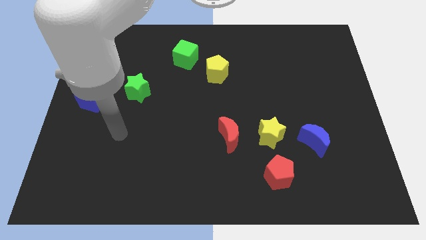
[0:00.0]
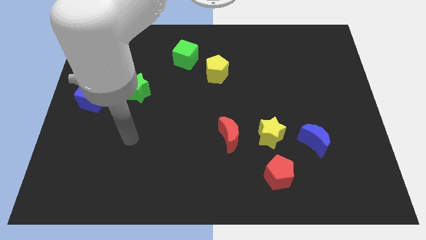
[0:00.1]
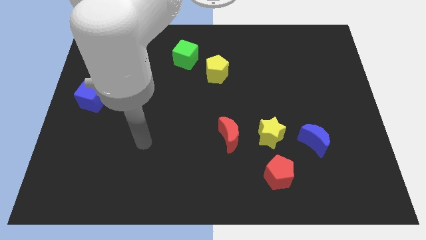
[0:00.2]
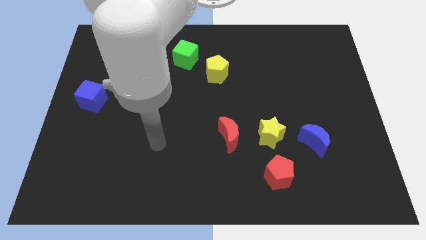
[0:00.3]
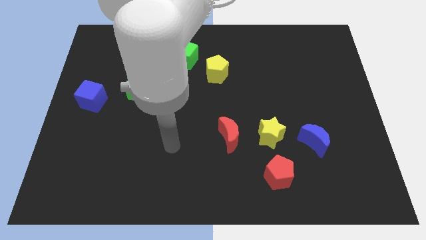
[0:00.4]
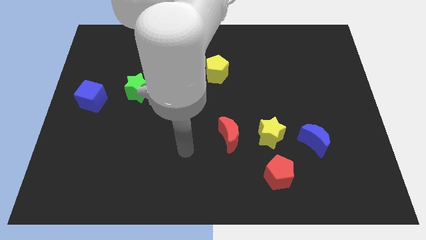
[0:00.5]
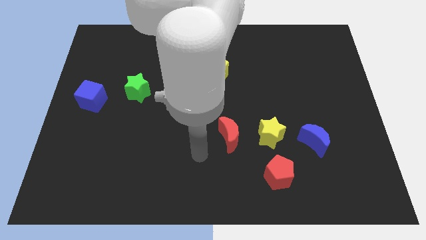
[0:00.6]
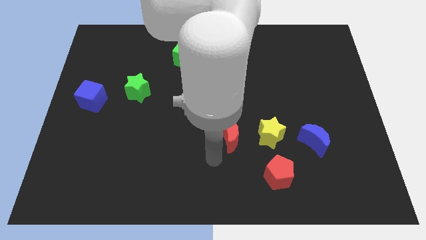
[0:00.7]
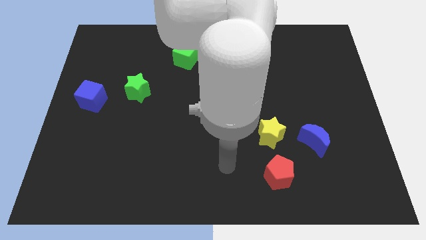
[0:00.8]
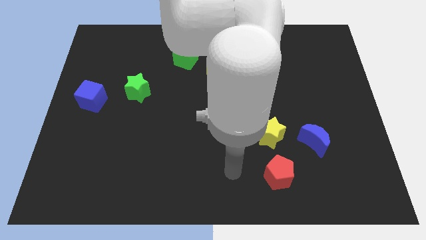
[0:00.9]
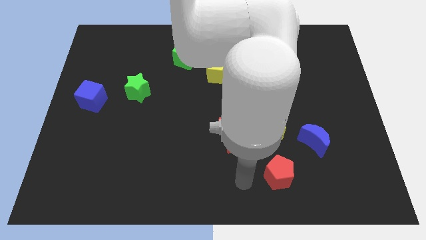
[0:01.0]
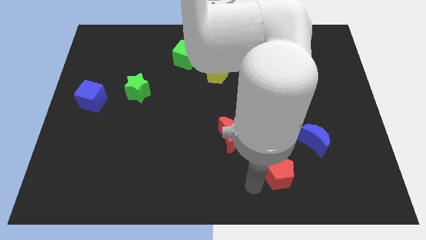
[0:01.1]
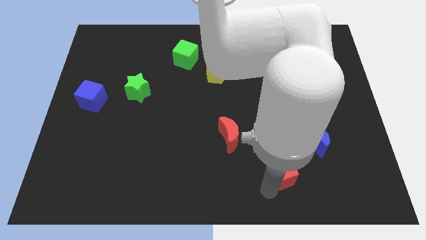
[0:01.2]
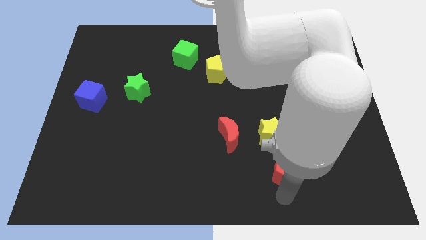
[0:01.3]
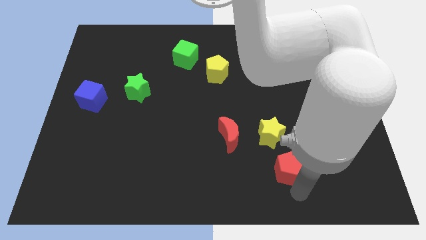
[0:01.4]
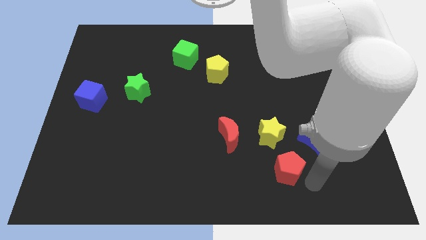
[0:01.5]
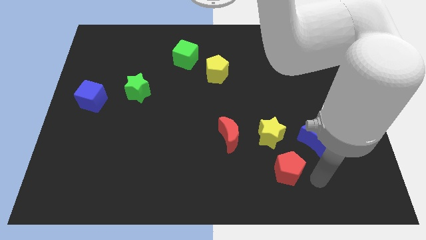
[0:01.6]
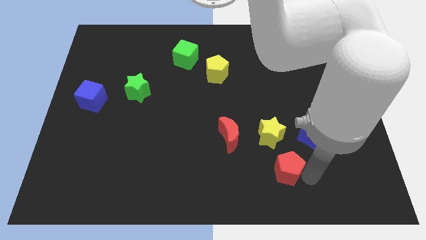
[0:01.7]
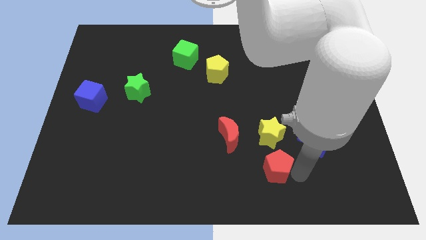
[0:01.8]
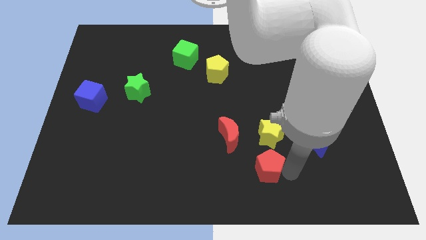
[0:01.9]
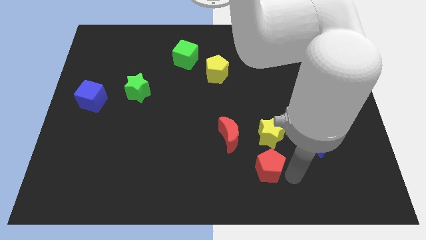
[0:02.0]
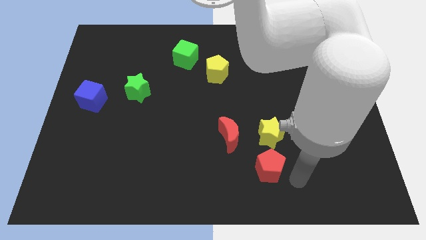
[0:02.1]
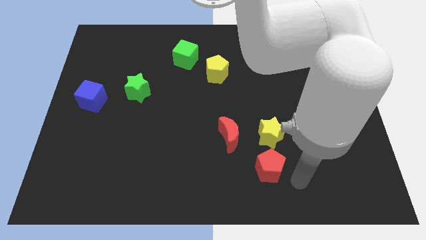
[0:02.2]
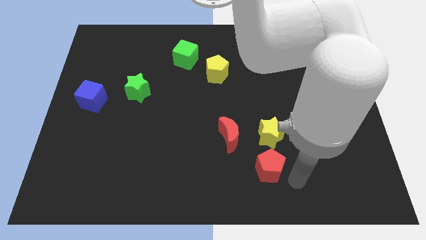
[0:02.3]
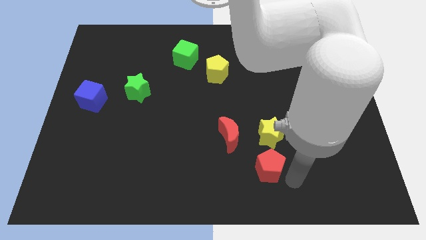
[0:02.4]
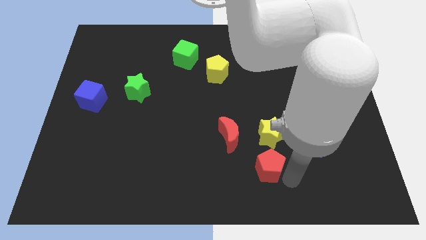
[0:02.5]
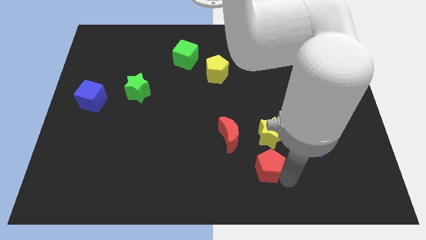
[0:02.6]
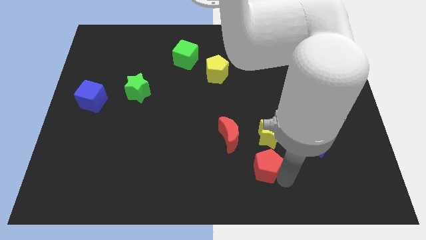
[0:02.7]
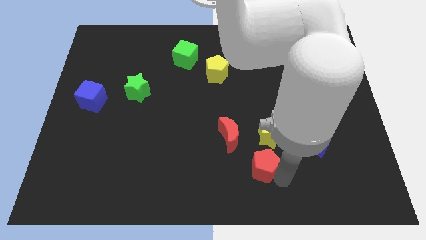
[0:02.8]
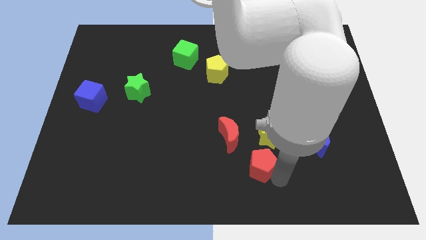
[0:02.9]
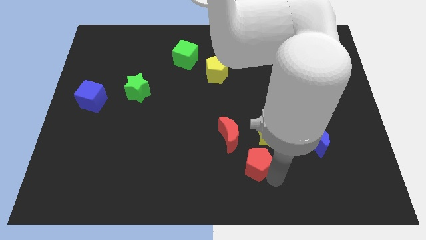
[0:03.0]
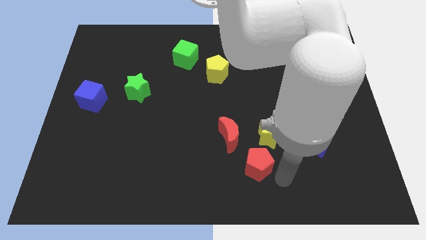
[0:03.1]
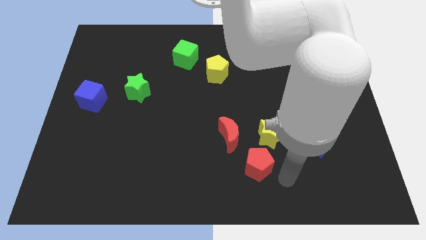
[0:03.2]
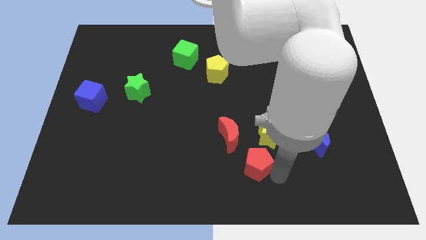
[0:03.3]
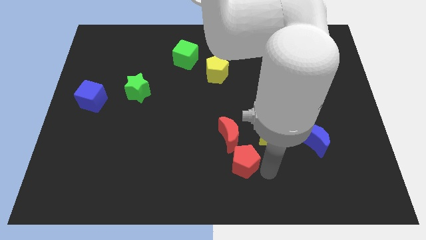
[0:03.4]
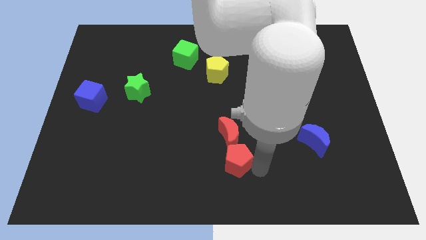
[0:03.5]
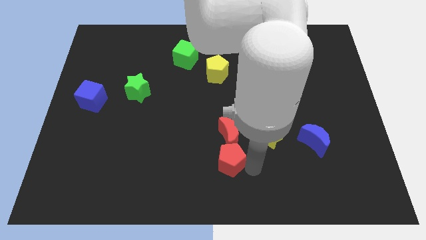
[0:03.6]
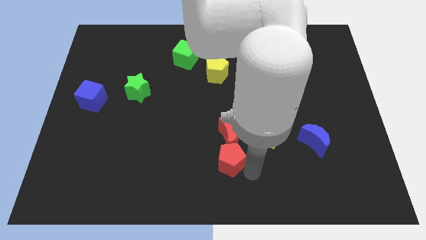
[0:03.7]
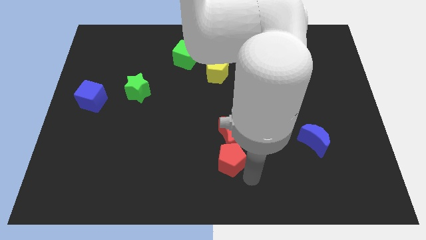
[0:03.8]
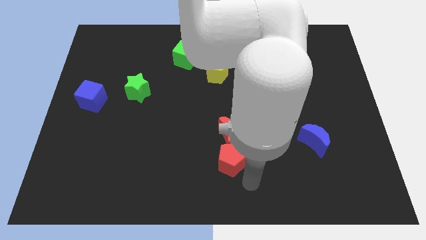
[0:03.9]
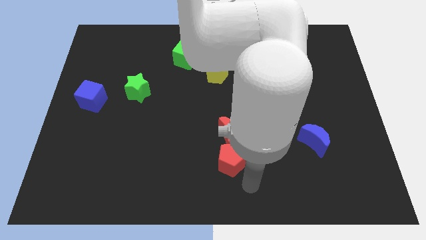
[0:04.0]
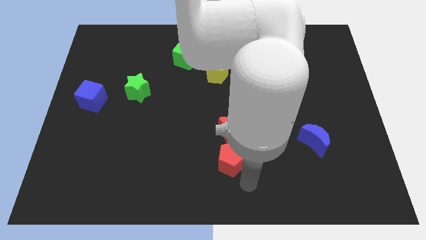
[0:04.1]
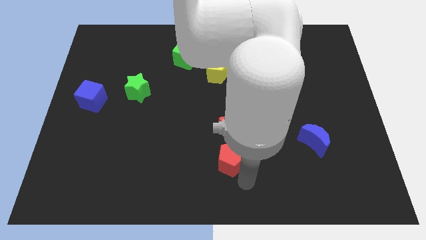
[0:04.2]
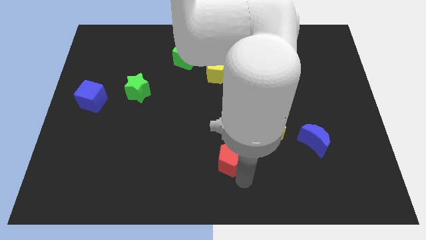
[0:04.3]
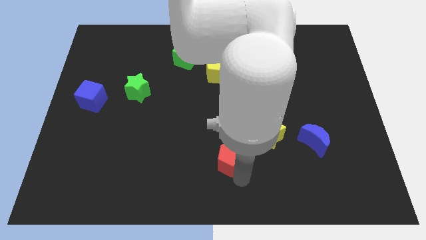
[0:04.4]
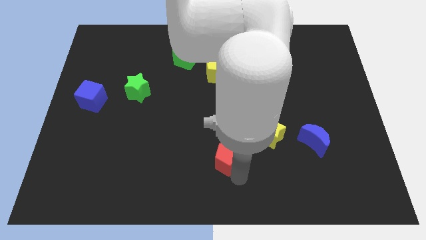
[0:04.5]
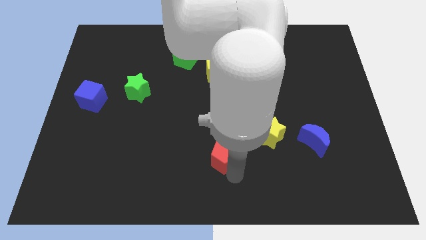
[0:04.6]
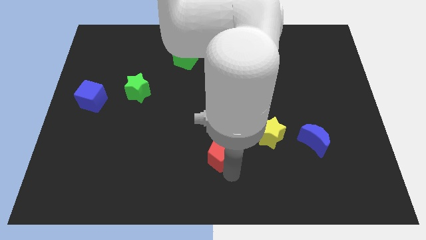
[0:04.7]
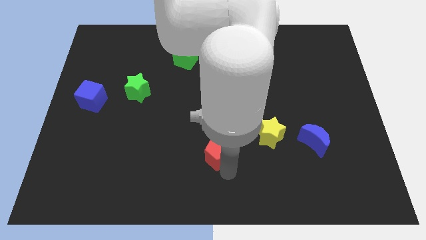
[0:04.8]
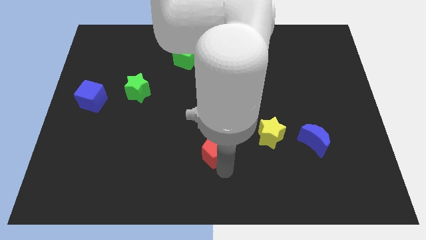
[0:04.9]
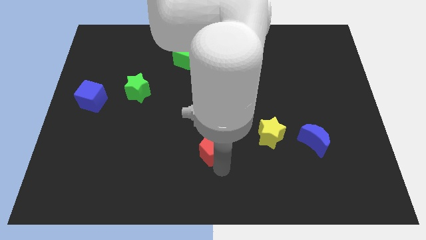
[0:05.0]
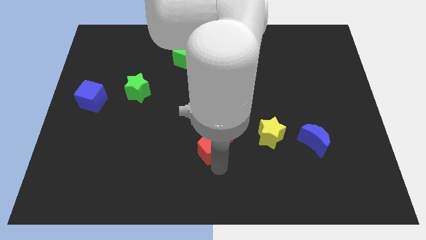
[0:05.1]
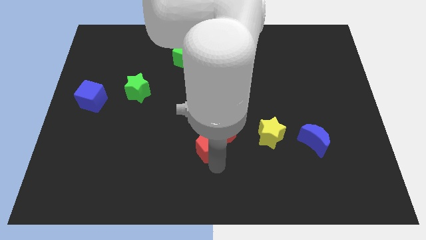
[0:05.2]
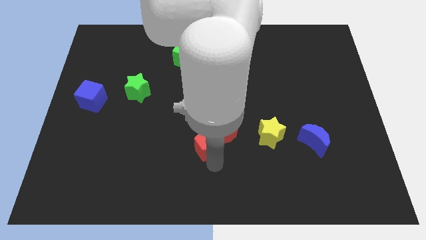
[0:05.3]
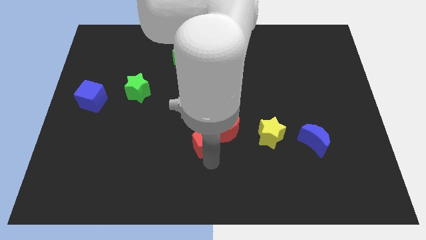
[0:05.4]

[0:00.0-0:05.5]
put the red pentagon to the middle

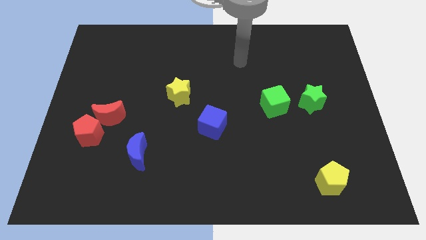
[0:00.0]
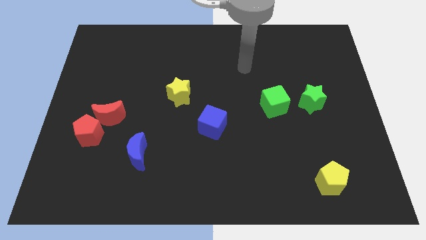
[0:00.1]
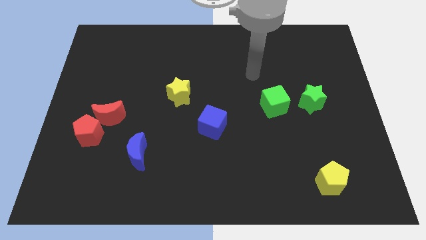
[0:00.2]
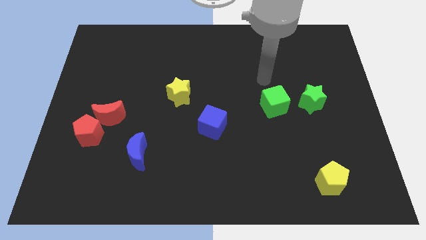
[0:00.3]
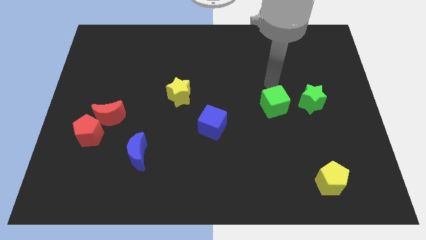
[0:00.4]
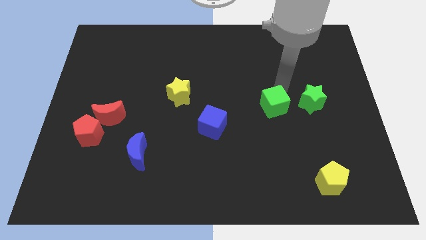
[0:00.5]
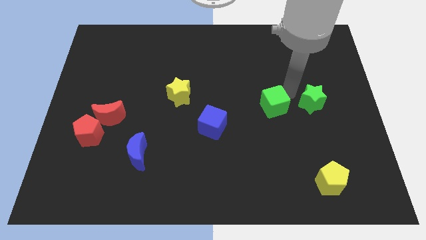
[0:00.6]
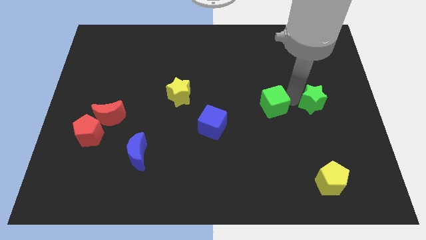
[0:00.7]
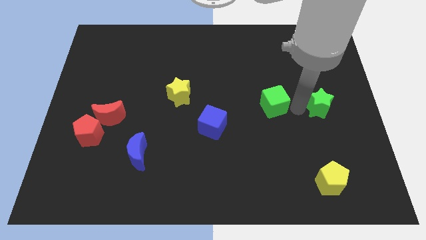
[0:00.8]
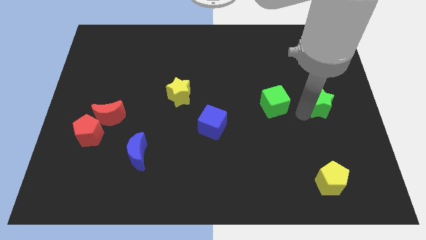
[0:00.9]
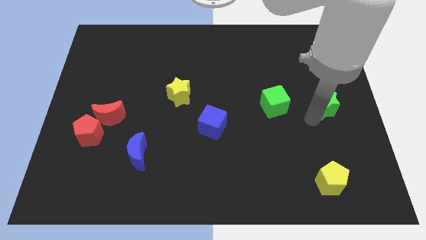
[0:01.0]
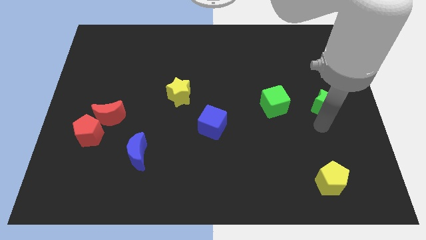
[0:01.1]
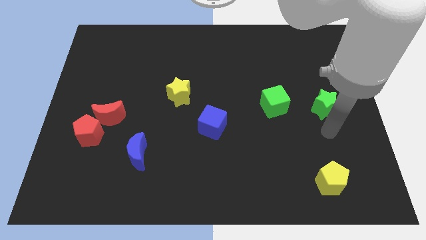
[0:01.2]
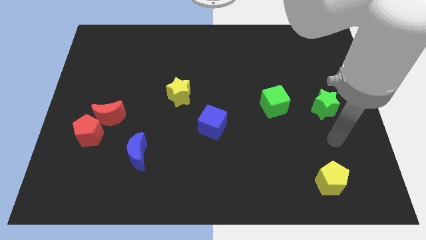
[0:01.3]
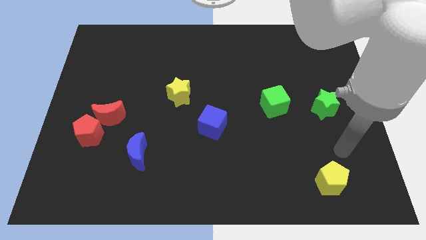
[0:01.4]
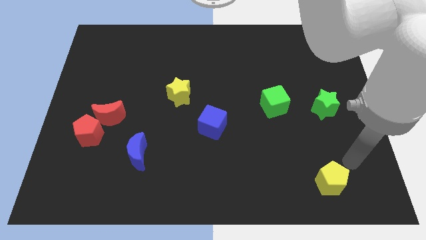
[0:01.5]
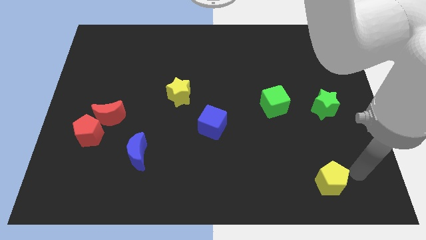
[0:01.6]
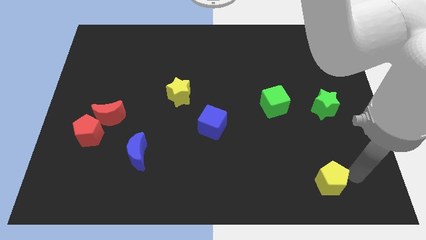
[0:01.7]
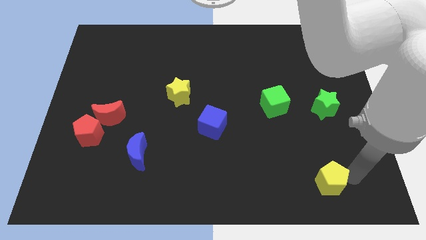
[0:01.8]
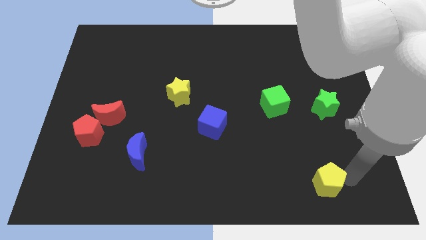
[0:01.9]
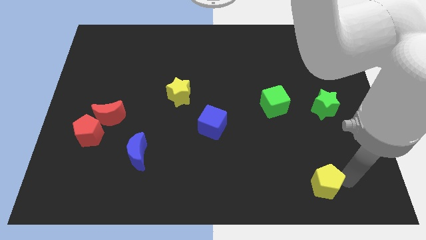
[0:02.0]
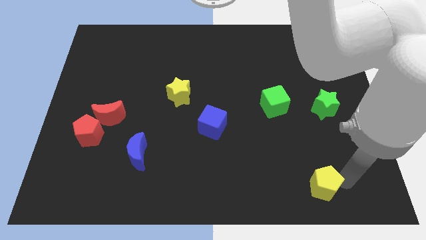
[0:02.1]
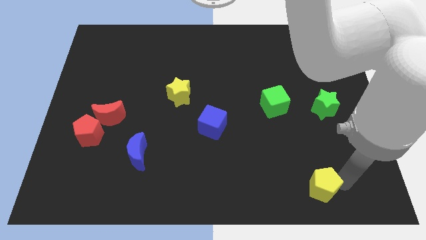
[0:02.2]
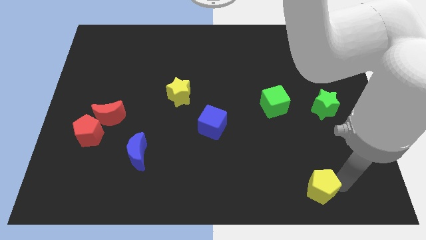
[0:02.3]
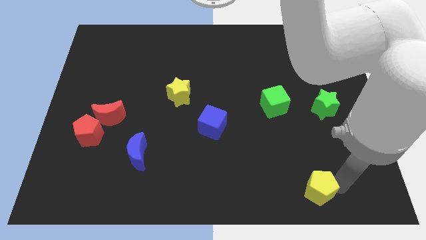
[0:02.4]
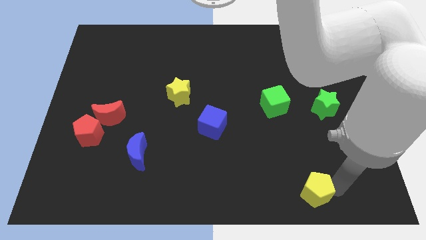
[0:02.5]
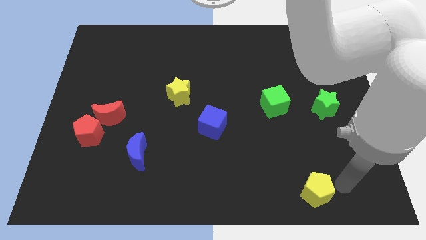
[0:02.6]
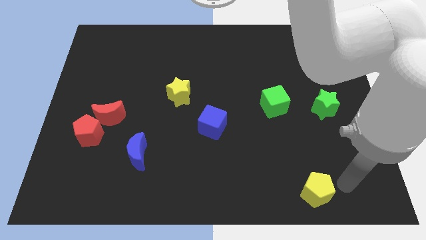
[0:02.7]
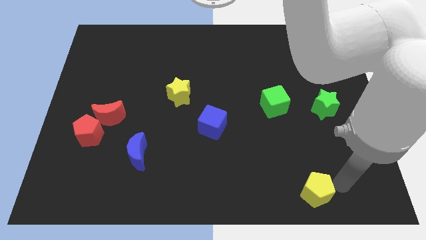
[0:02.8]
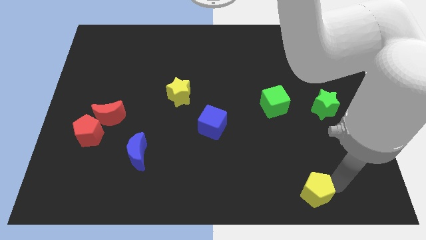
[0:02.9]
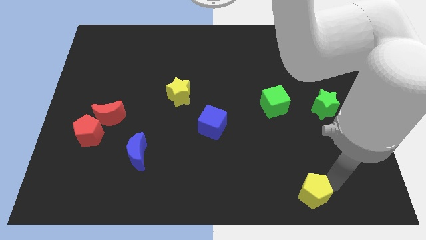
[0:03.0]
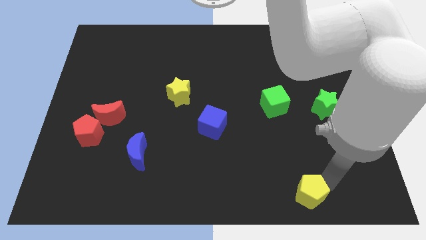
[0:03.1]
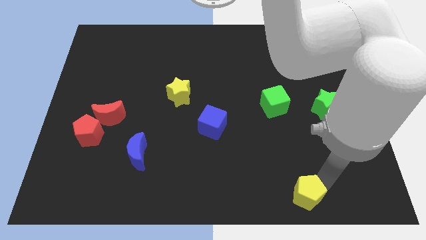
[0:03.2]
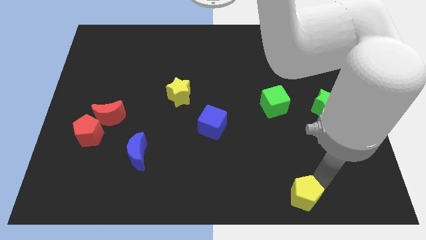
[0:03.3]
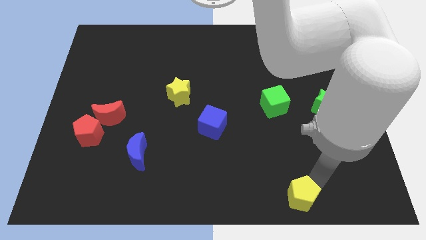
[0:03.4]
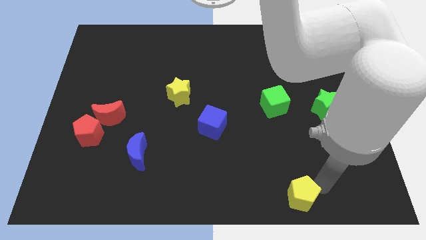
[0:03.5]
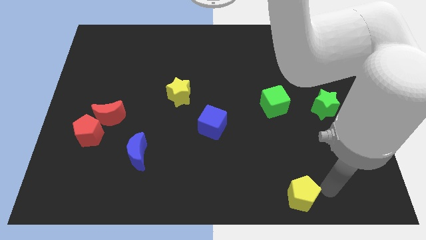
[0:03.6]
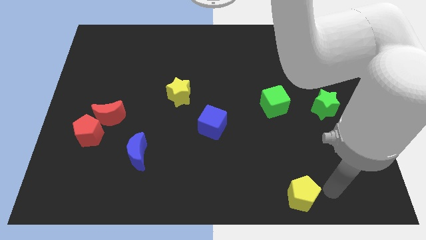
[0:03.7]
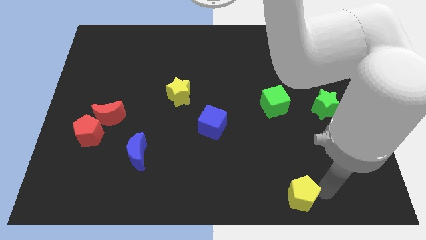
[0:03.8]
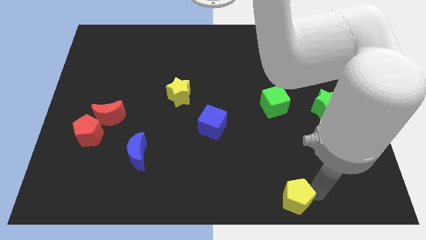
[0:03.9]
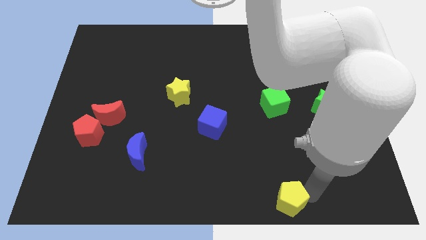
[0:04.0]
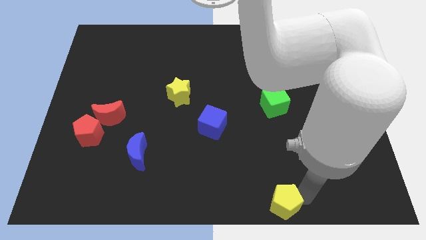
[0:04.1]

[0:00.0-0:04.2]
move the yellow pentagon to the bottom
